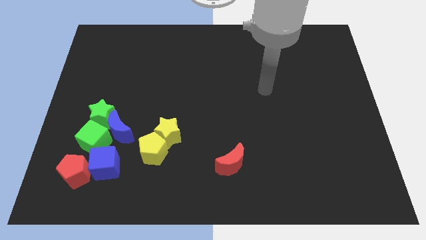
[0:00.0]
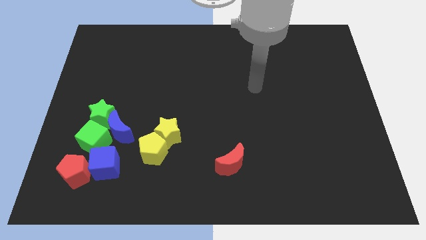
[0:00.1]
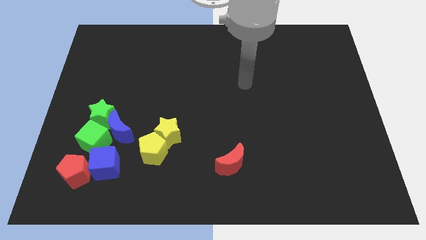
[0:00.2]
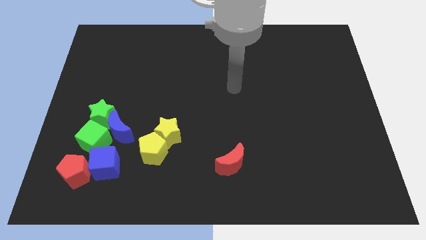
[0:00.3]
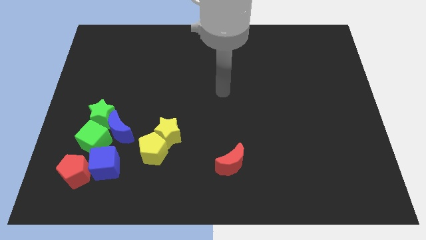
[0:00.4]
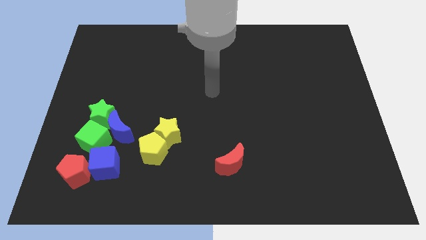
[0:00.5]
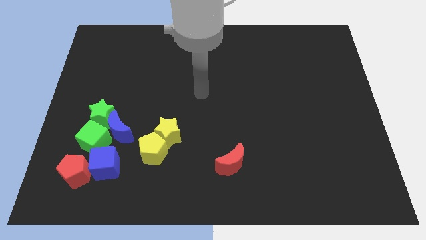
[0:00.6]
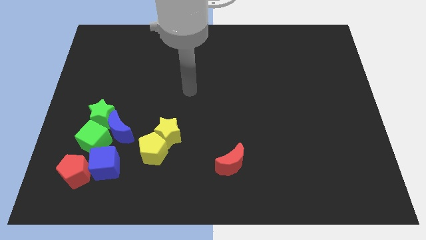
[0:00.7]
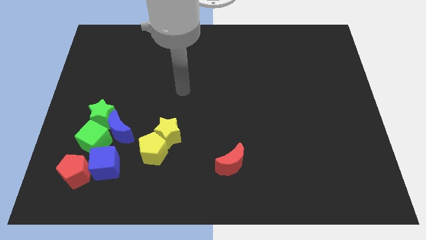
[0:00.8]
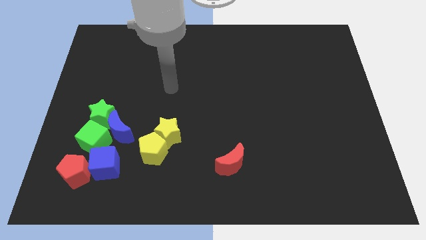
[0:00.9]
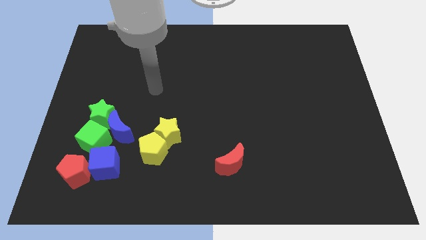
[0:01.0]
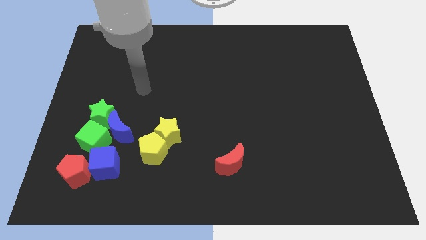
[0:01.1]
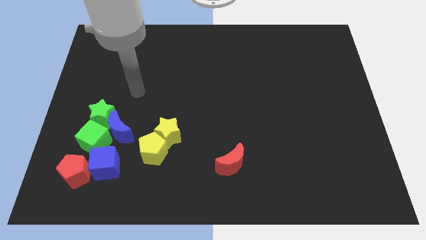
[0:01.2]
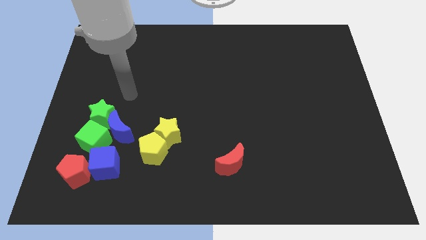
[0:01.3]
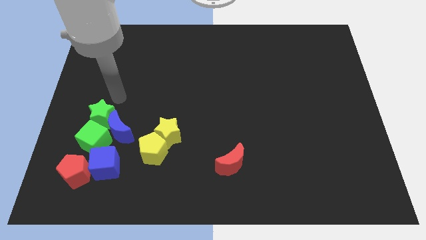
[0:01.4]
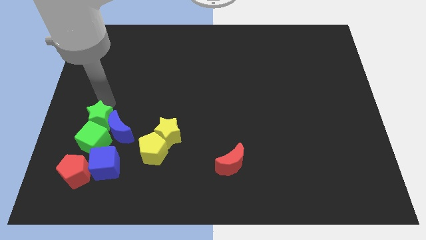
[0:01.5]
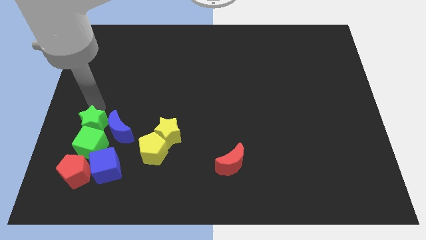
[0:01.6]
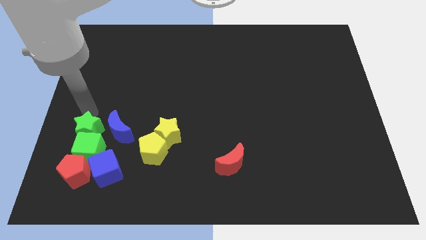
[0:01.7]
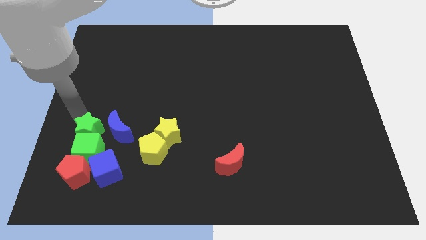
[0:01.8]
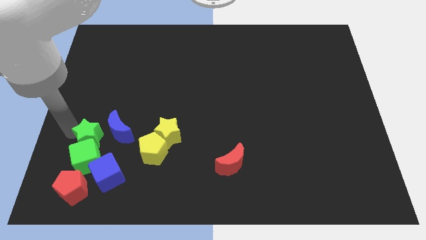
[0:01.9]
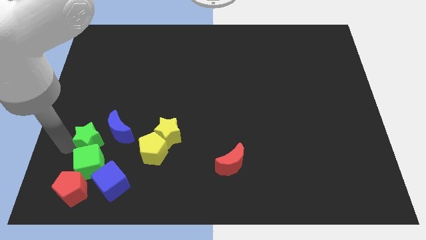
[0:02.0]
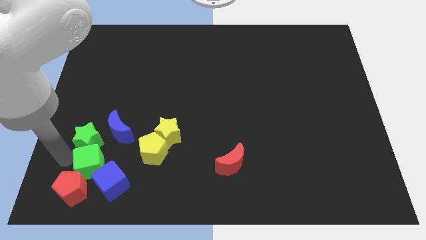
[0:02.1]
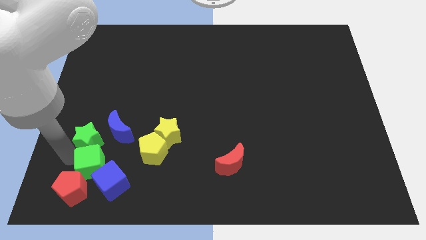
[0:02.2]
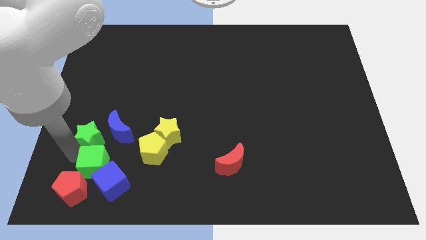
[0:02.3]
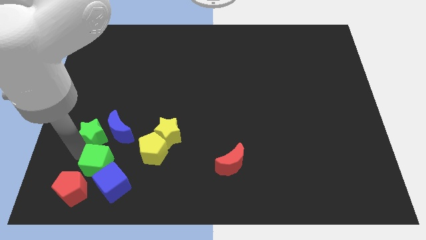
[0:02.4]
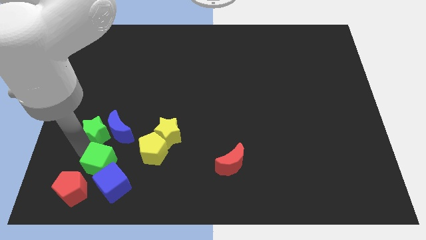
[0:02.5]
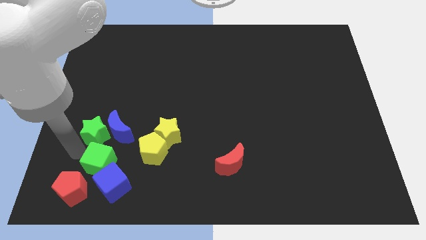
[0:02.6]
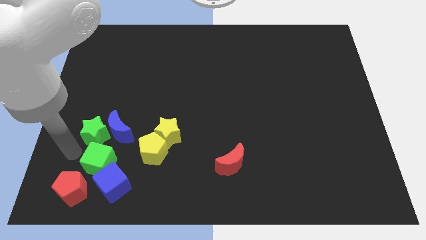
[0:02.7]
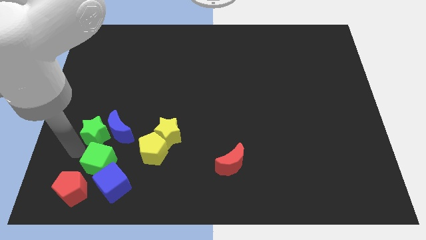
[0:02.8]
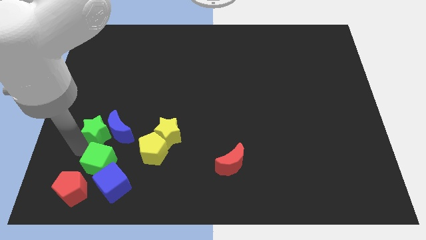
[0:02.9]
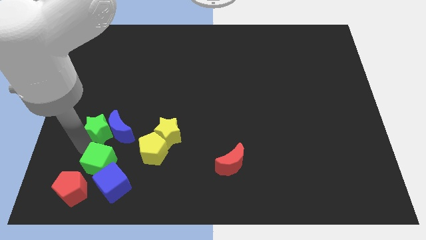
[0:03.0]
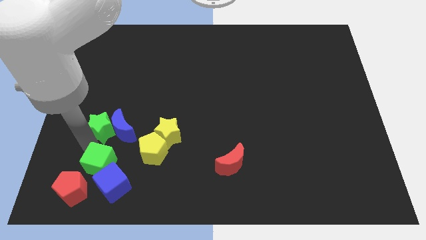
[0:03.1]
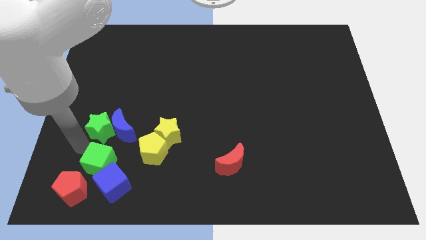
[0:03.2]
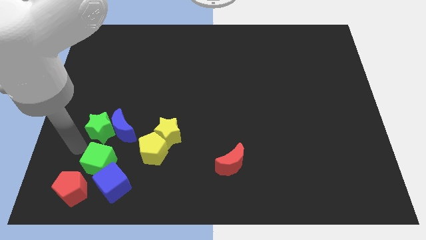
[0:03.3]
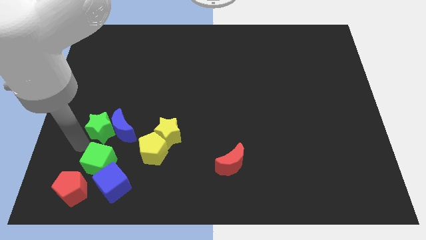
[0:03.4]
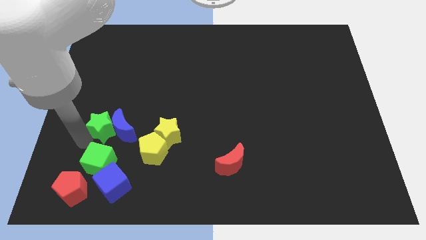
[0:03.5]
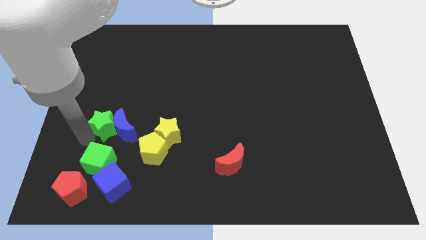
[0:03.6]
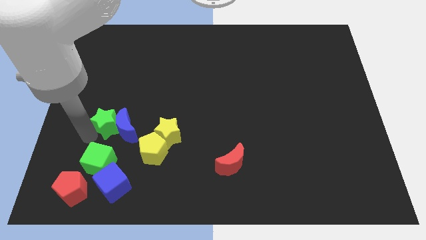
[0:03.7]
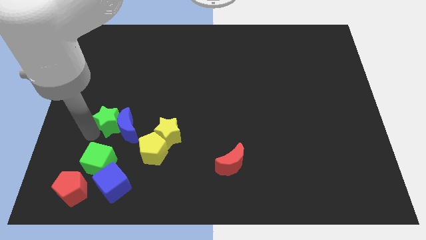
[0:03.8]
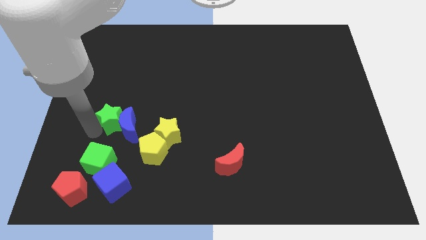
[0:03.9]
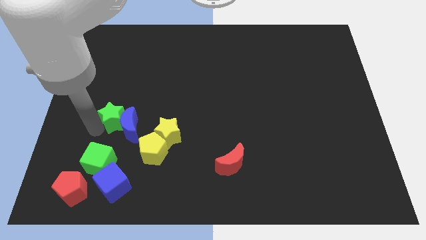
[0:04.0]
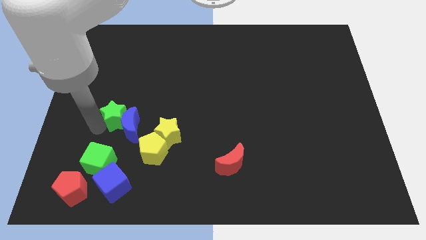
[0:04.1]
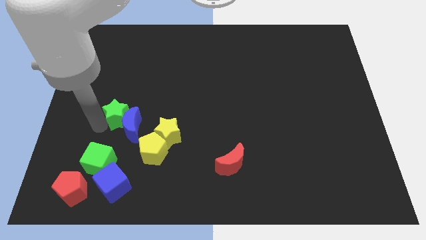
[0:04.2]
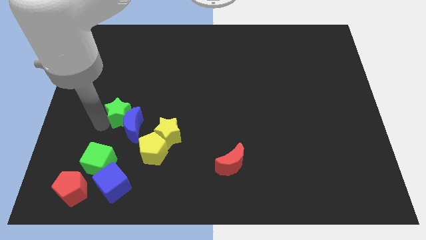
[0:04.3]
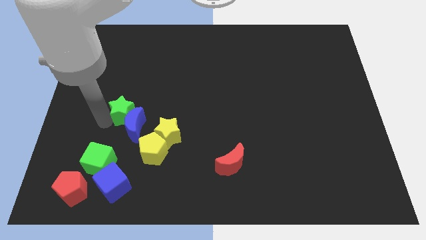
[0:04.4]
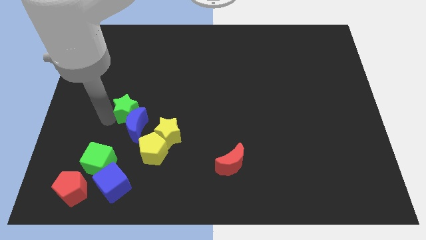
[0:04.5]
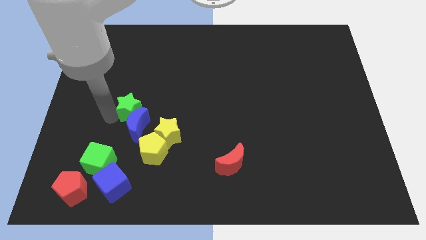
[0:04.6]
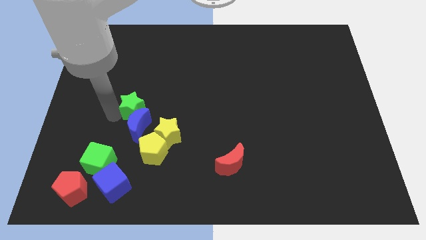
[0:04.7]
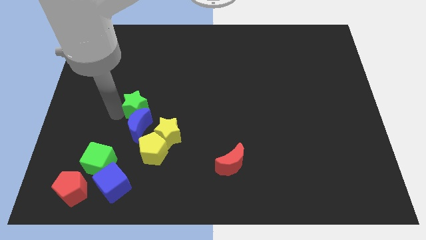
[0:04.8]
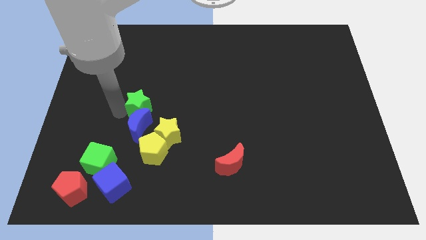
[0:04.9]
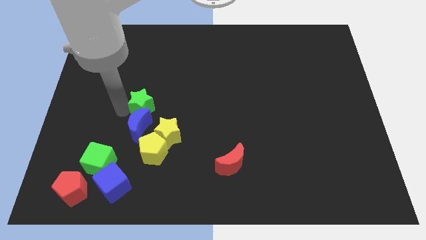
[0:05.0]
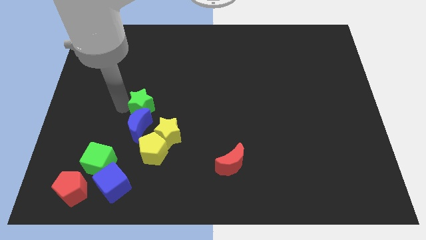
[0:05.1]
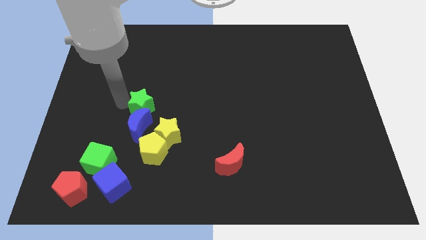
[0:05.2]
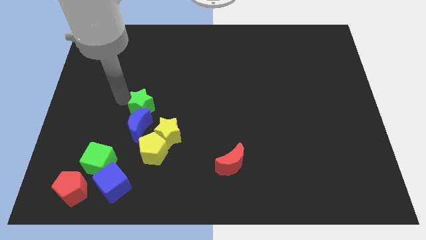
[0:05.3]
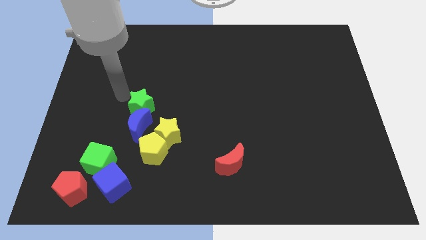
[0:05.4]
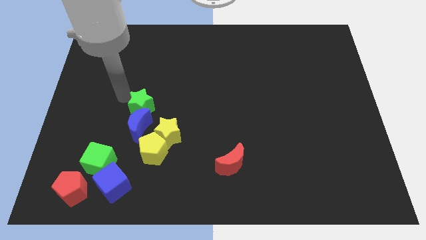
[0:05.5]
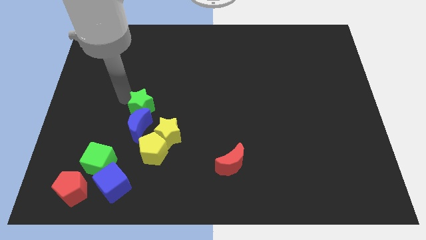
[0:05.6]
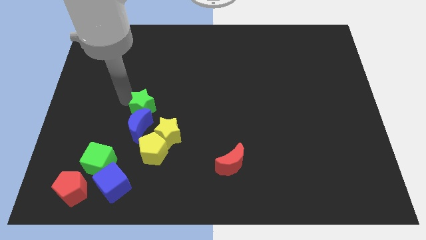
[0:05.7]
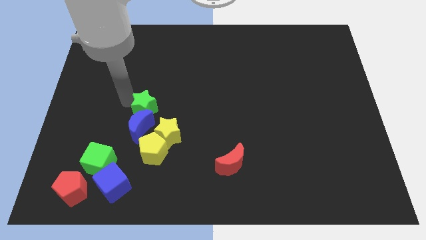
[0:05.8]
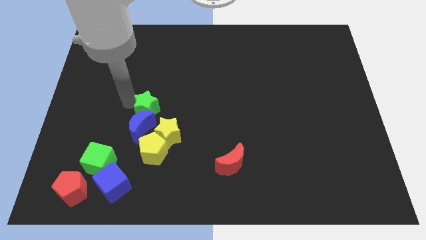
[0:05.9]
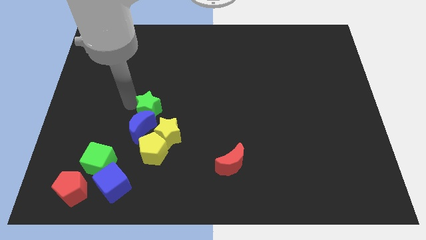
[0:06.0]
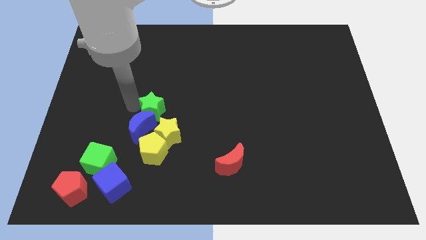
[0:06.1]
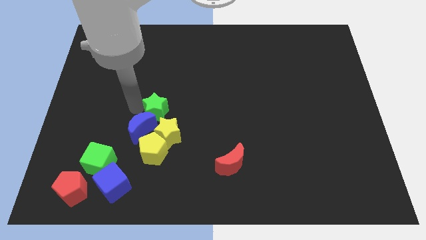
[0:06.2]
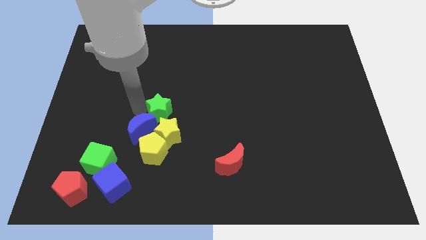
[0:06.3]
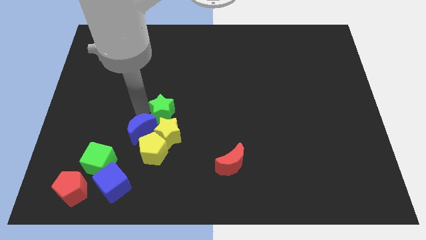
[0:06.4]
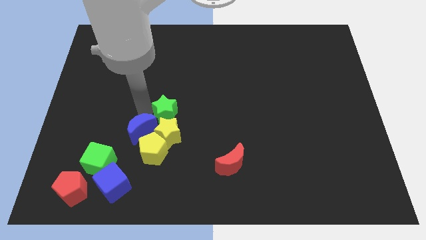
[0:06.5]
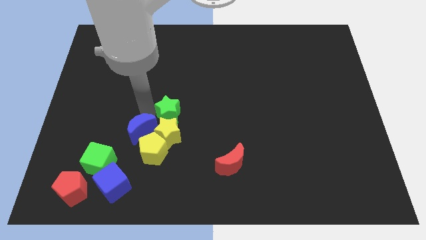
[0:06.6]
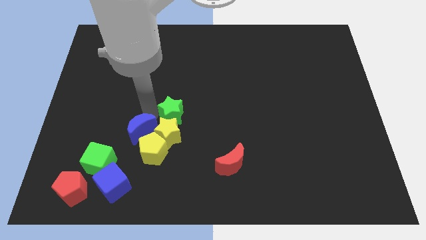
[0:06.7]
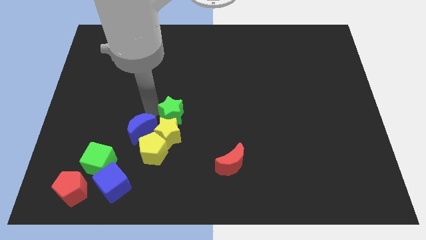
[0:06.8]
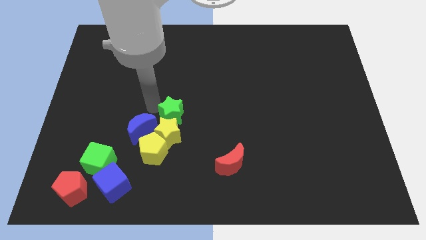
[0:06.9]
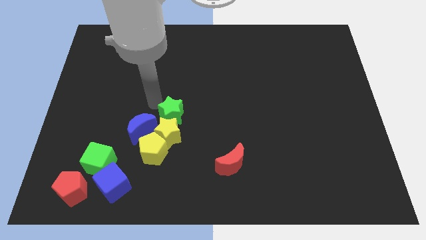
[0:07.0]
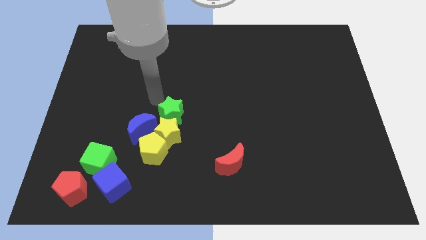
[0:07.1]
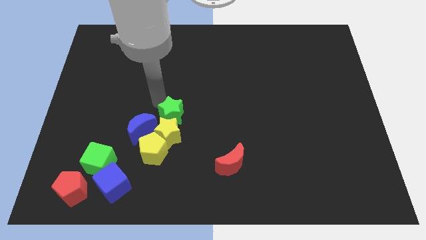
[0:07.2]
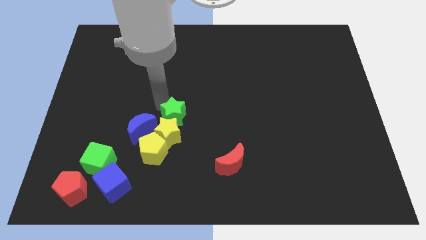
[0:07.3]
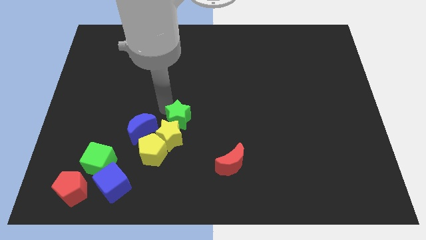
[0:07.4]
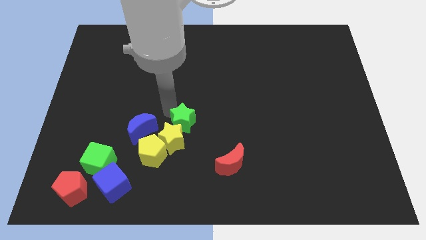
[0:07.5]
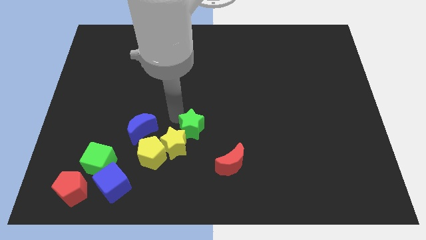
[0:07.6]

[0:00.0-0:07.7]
move the green star to the top left side of the red moon

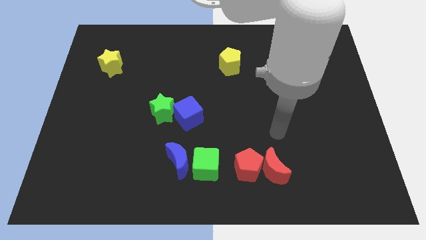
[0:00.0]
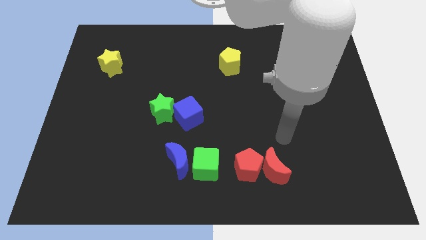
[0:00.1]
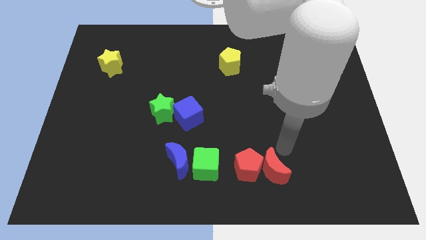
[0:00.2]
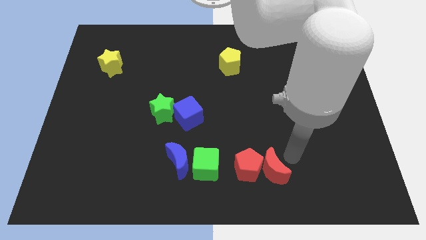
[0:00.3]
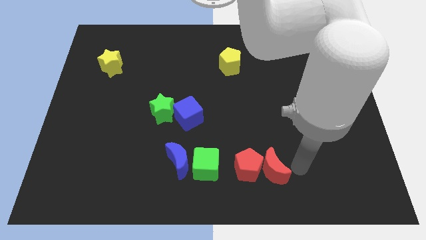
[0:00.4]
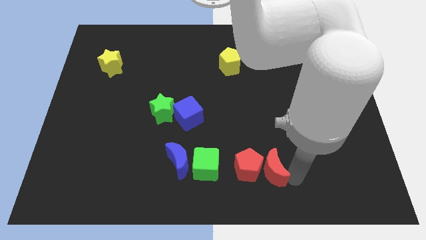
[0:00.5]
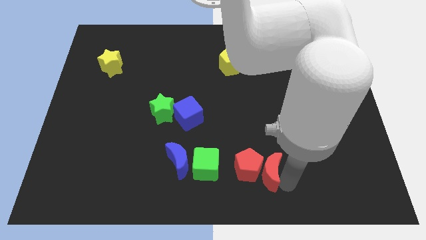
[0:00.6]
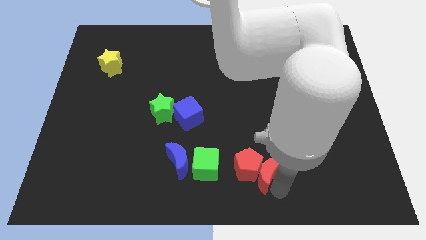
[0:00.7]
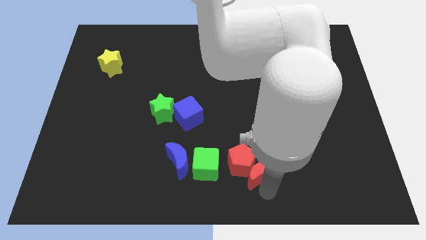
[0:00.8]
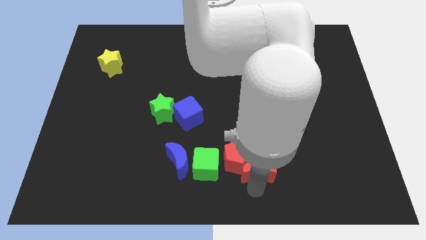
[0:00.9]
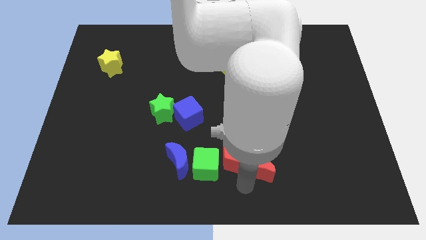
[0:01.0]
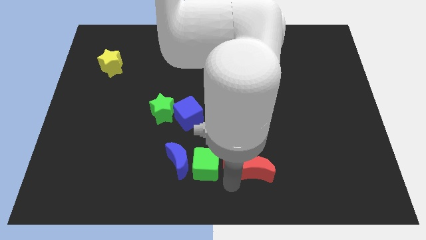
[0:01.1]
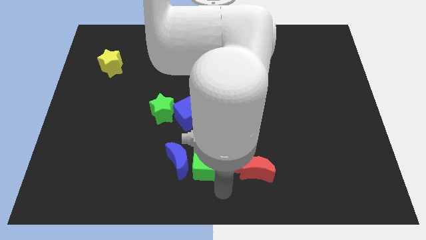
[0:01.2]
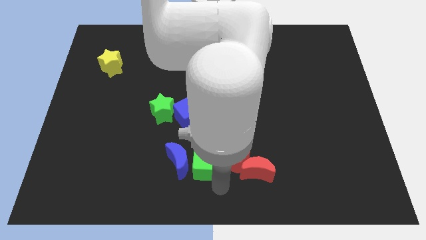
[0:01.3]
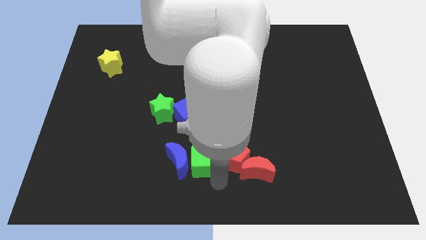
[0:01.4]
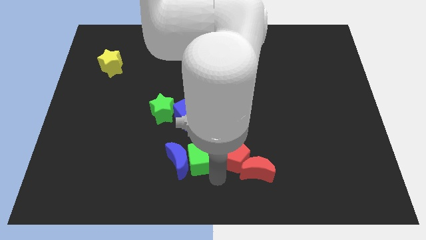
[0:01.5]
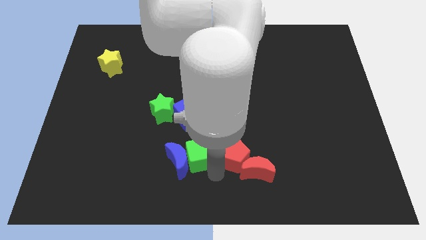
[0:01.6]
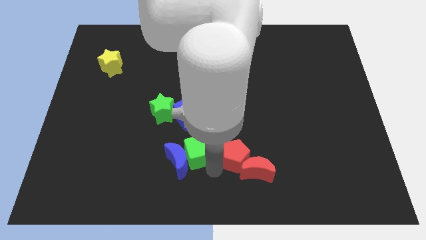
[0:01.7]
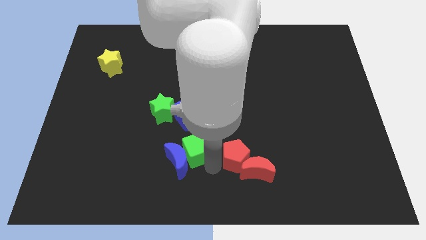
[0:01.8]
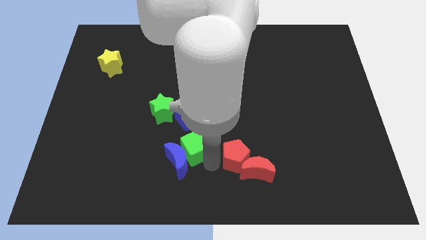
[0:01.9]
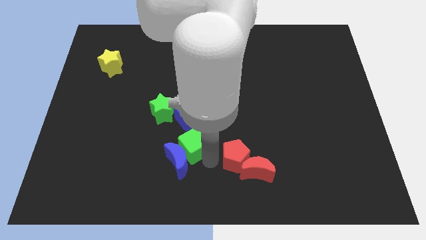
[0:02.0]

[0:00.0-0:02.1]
put the green cube to the bottom right of the green star
